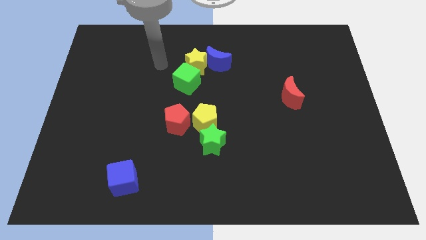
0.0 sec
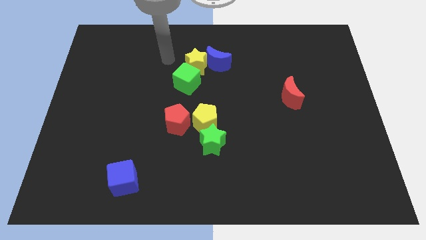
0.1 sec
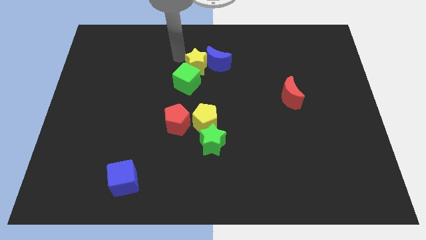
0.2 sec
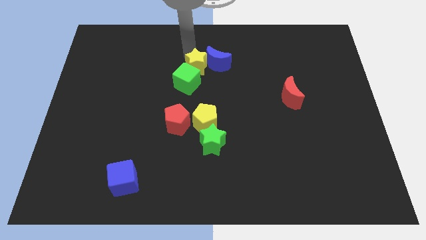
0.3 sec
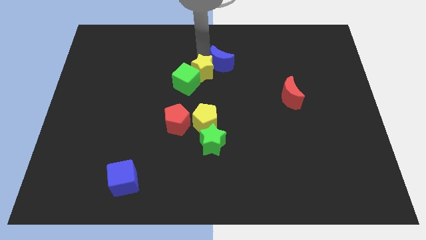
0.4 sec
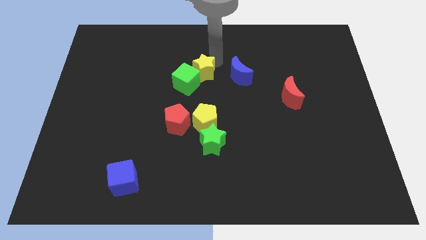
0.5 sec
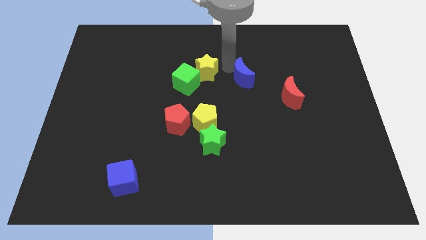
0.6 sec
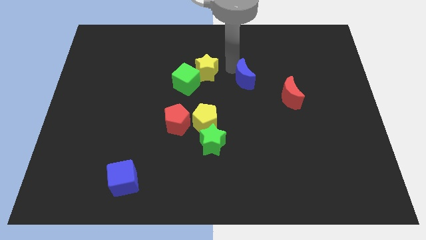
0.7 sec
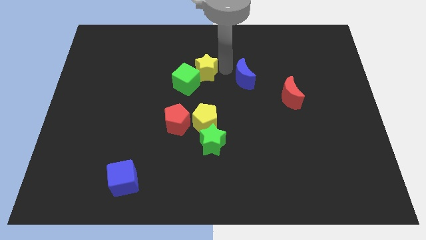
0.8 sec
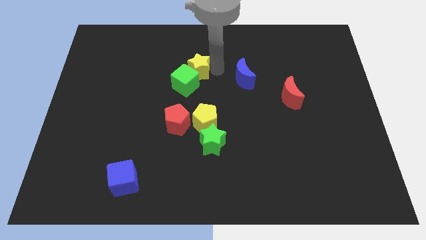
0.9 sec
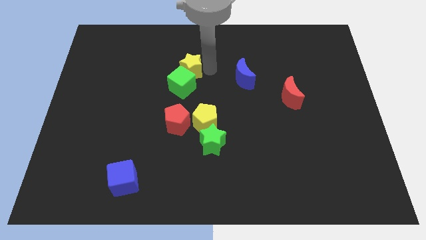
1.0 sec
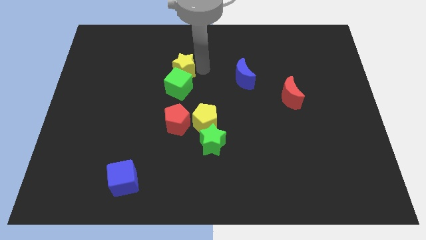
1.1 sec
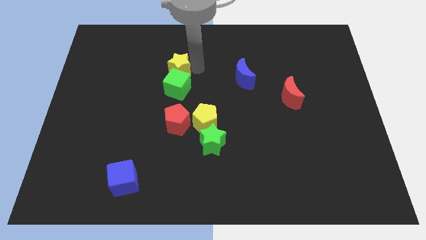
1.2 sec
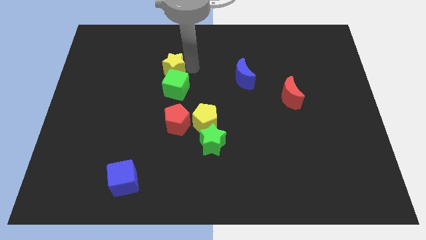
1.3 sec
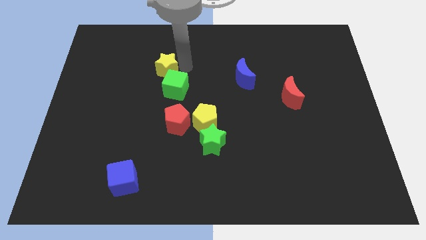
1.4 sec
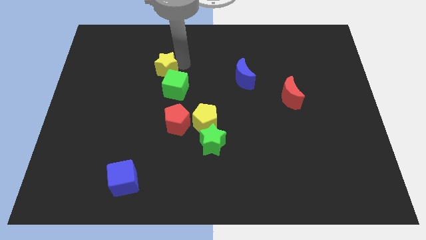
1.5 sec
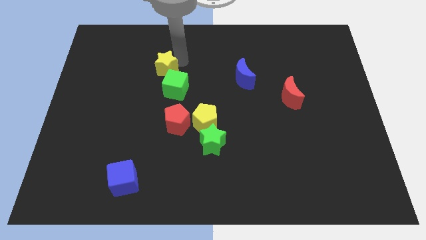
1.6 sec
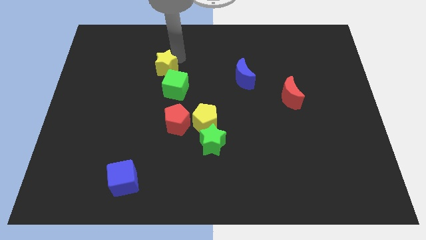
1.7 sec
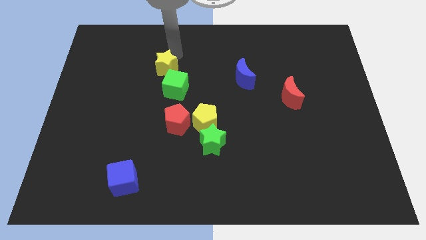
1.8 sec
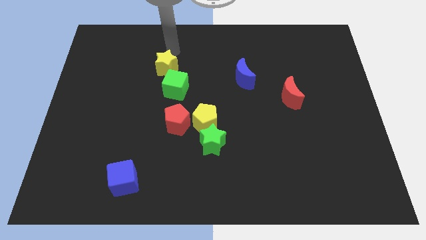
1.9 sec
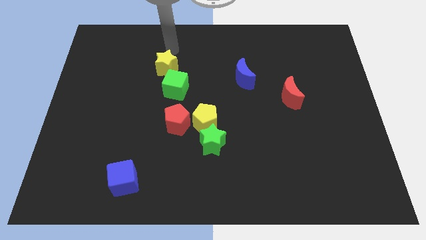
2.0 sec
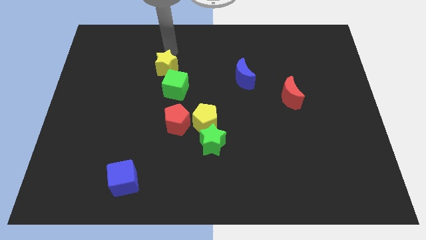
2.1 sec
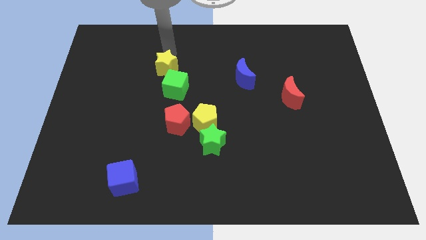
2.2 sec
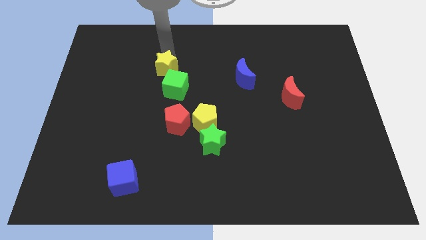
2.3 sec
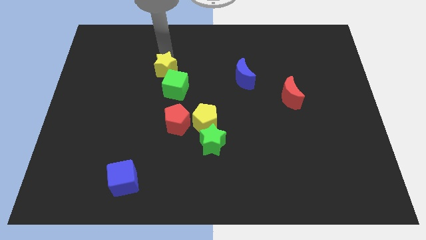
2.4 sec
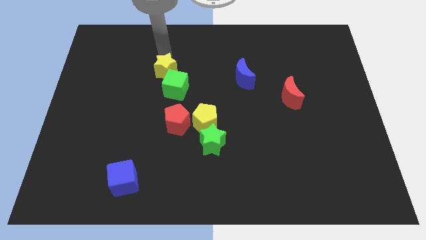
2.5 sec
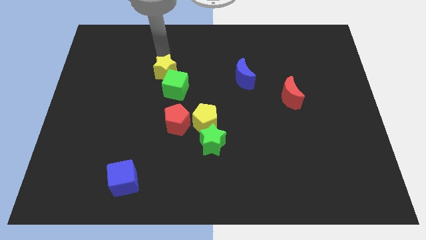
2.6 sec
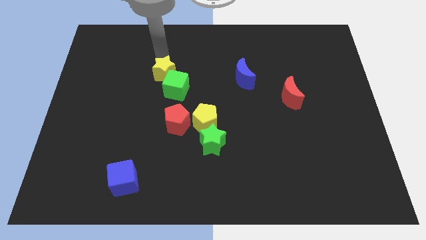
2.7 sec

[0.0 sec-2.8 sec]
move the yellow star somewhat diagonally downwards and to the left

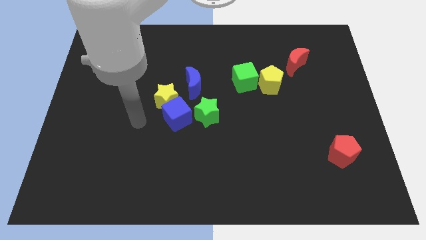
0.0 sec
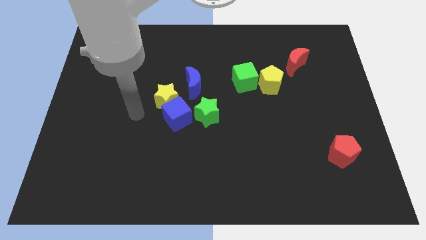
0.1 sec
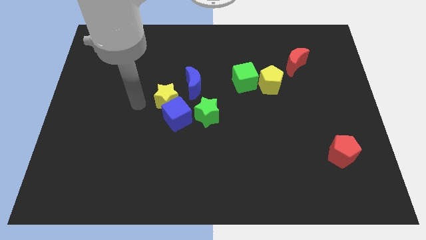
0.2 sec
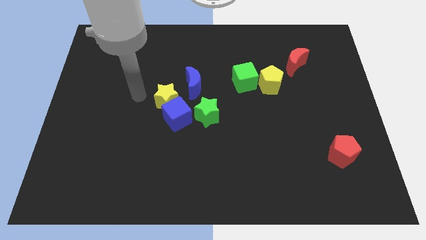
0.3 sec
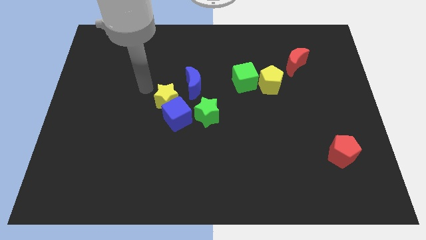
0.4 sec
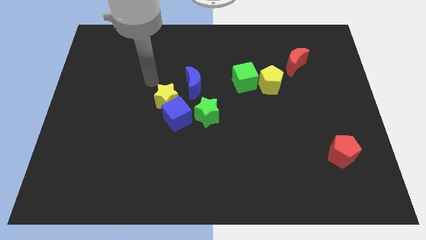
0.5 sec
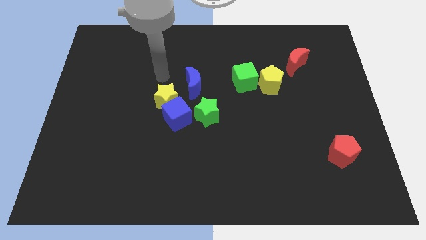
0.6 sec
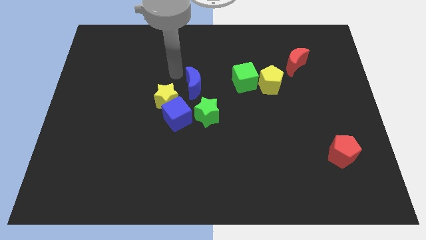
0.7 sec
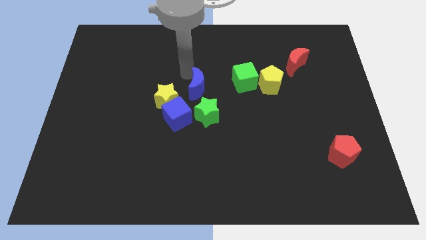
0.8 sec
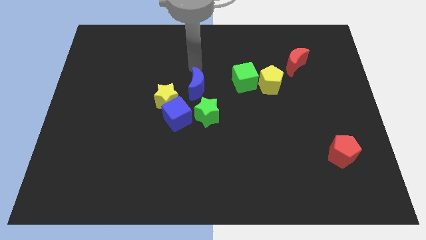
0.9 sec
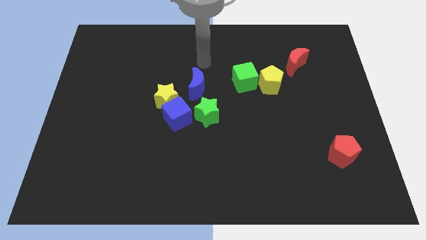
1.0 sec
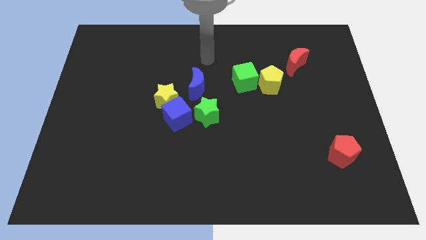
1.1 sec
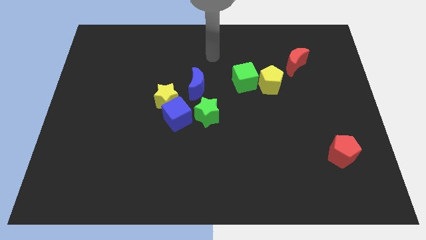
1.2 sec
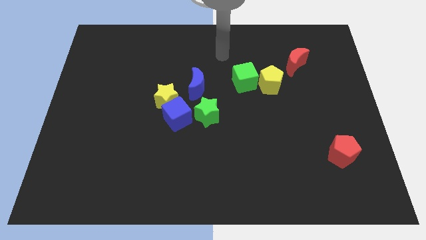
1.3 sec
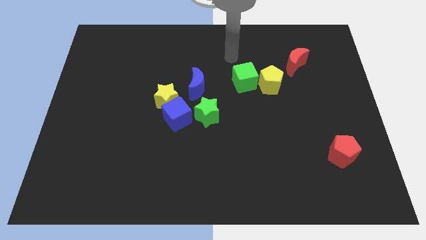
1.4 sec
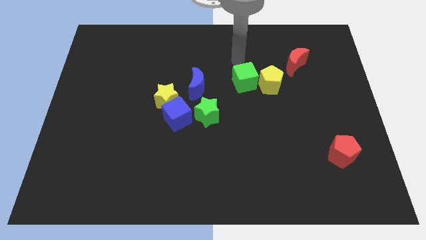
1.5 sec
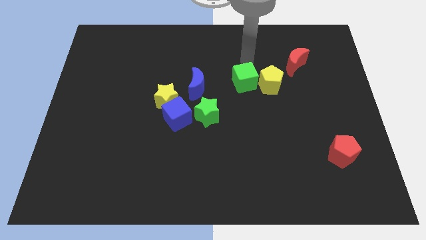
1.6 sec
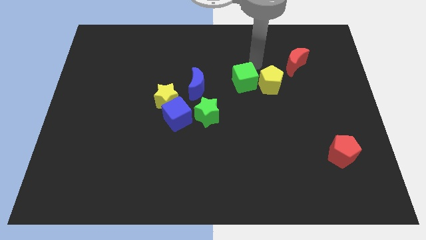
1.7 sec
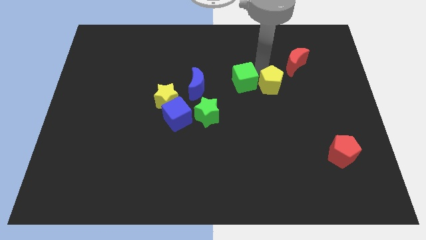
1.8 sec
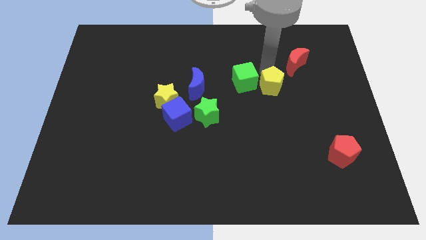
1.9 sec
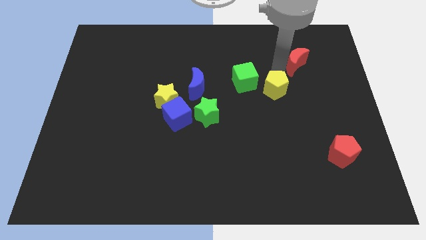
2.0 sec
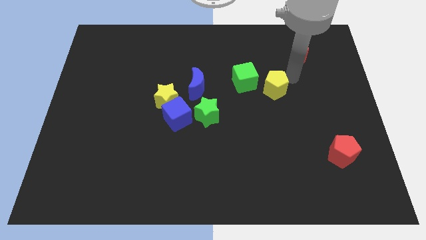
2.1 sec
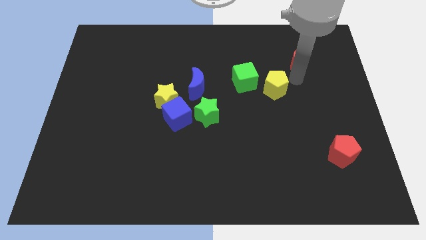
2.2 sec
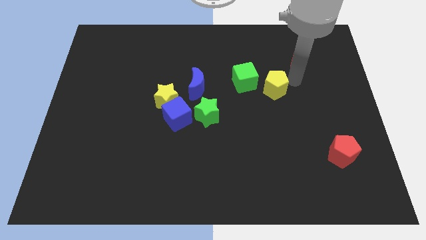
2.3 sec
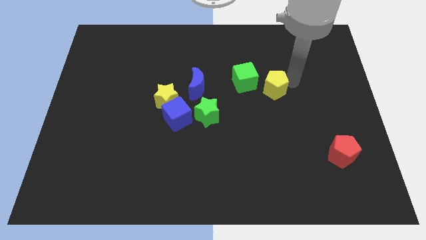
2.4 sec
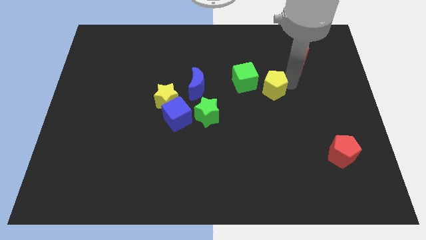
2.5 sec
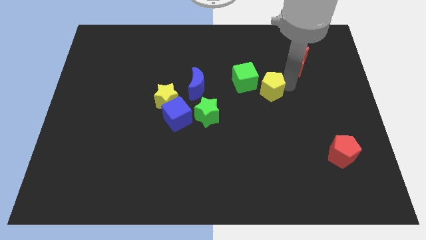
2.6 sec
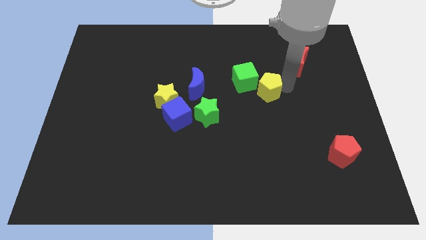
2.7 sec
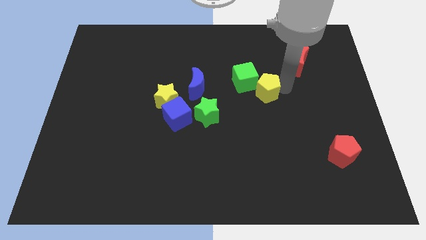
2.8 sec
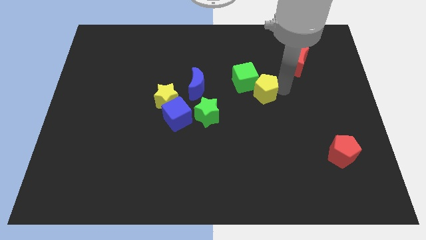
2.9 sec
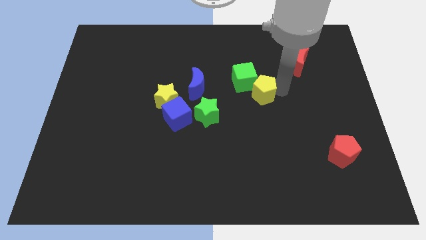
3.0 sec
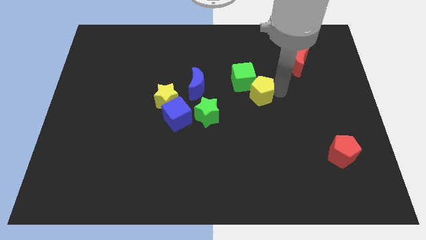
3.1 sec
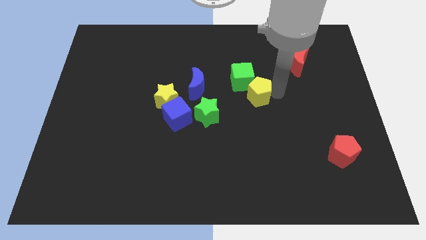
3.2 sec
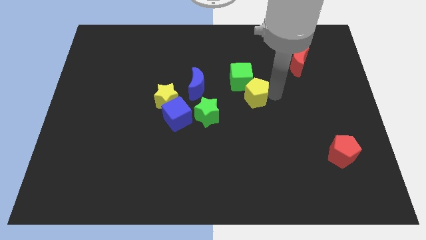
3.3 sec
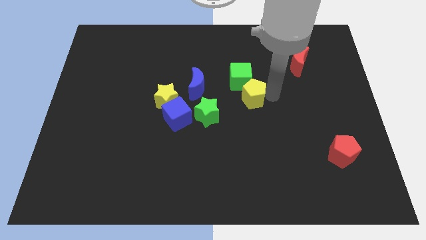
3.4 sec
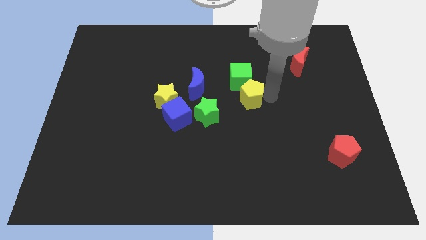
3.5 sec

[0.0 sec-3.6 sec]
slightly slide the yellow pentagon down and left diagonally

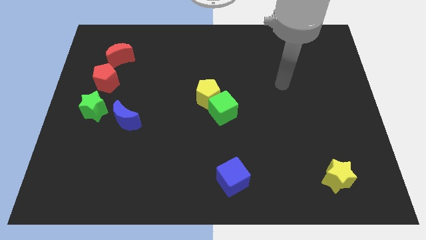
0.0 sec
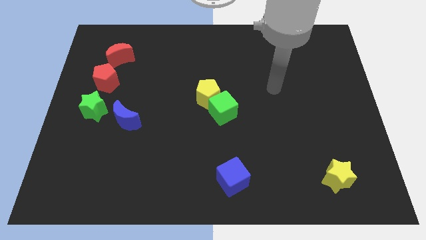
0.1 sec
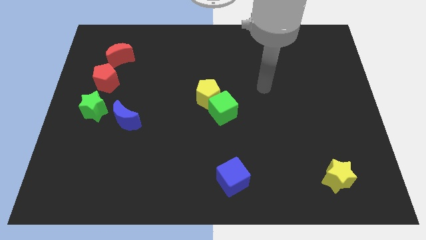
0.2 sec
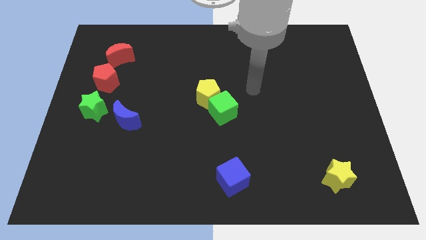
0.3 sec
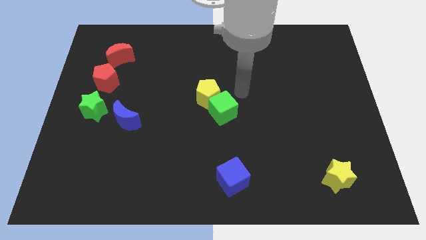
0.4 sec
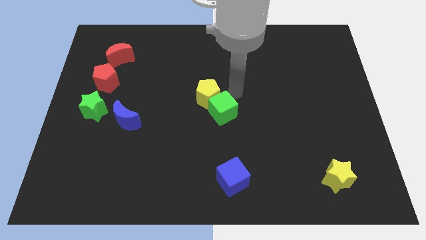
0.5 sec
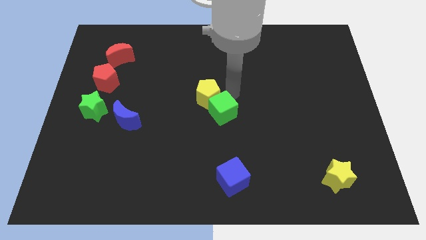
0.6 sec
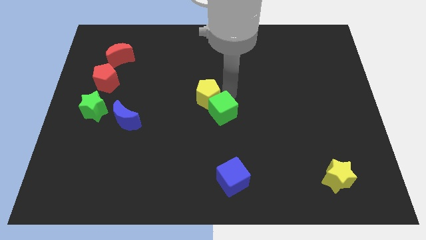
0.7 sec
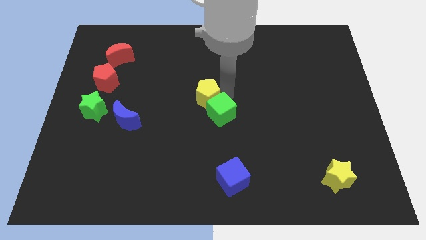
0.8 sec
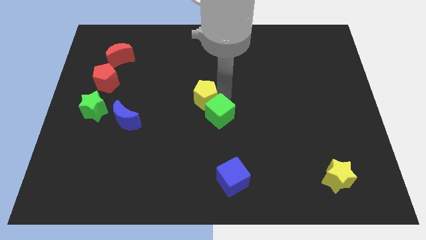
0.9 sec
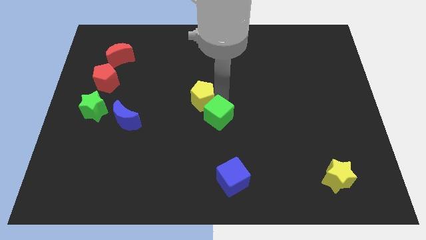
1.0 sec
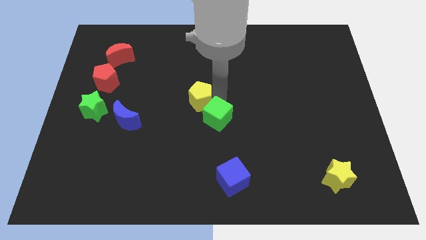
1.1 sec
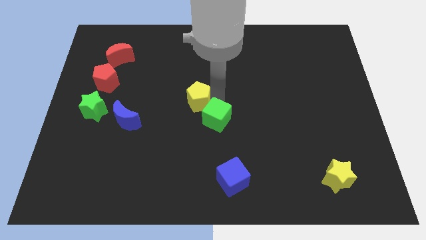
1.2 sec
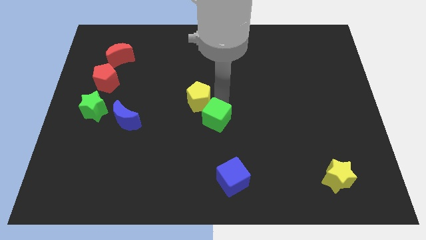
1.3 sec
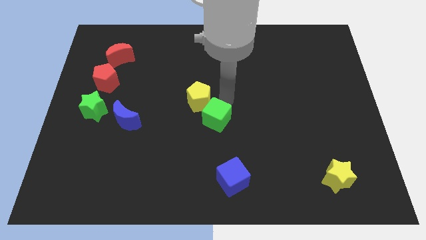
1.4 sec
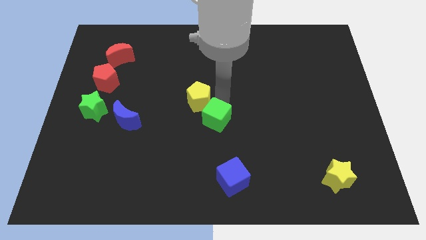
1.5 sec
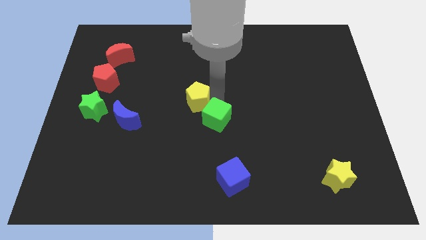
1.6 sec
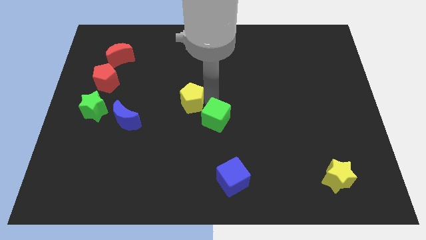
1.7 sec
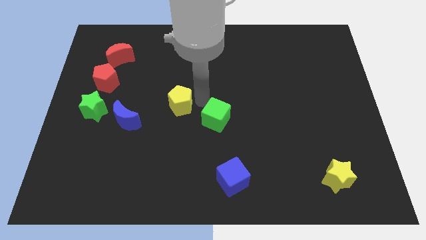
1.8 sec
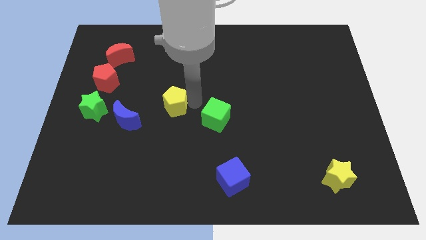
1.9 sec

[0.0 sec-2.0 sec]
slightly move the yellow pentagon left
